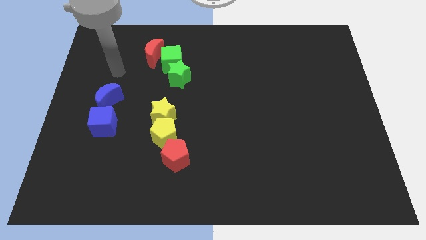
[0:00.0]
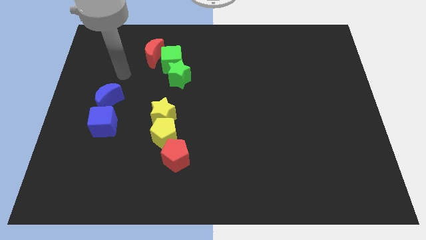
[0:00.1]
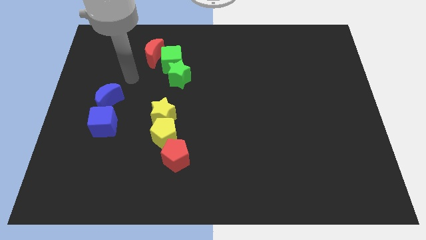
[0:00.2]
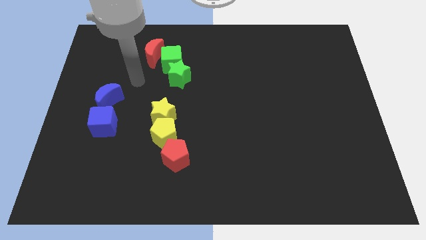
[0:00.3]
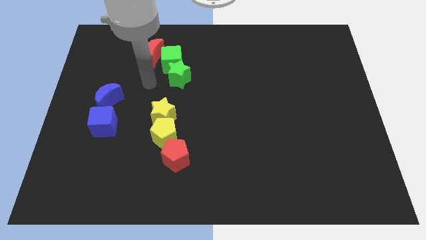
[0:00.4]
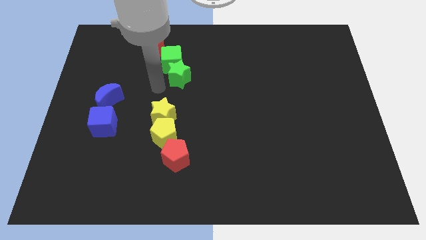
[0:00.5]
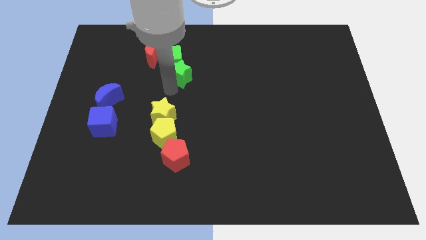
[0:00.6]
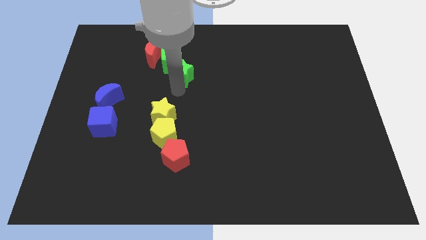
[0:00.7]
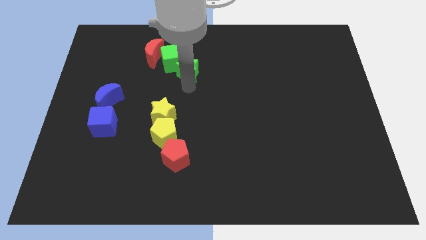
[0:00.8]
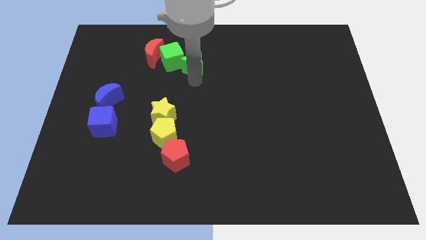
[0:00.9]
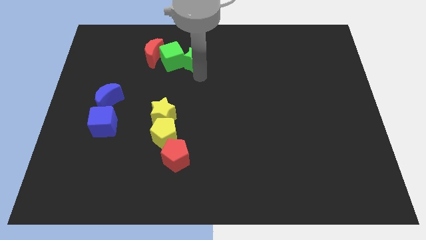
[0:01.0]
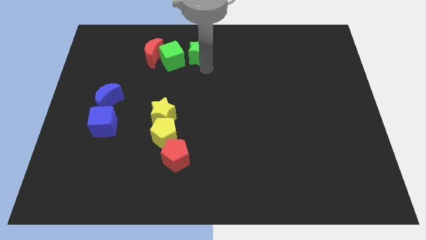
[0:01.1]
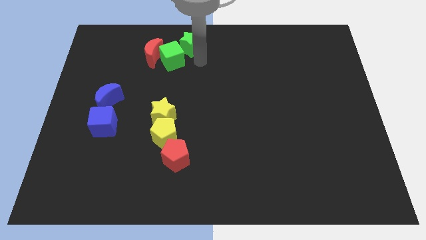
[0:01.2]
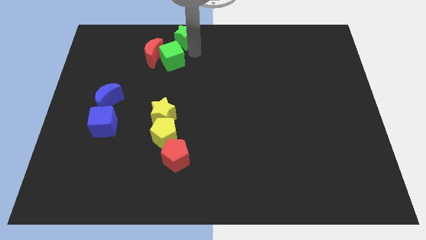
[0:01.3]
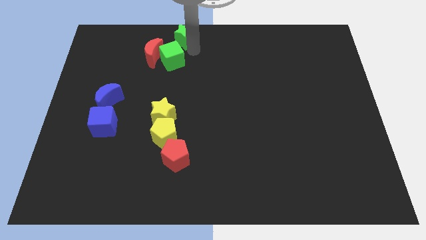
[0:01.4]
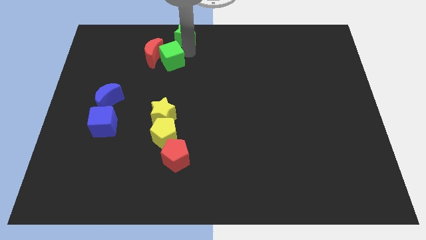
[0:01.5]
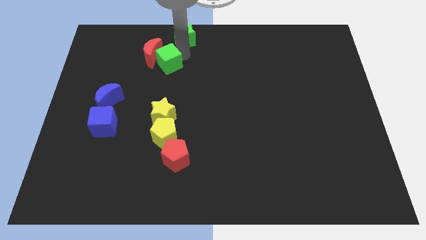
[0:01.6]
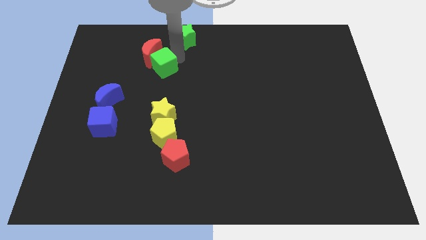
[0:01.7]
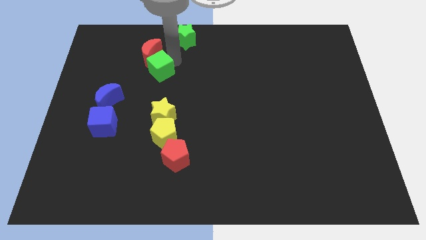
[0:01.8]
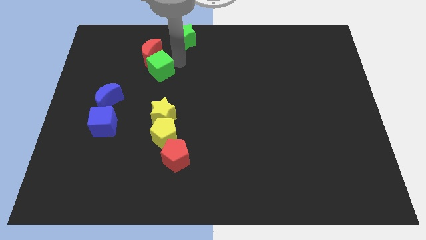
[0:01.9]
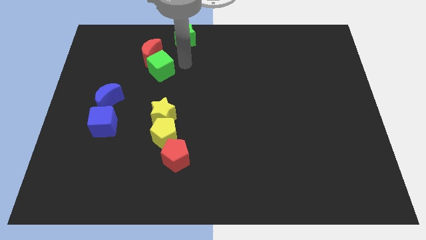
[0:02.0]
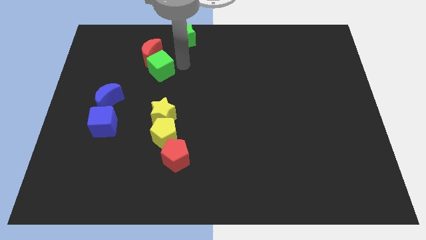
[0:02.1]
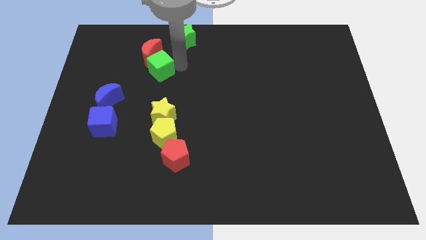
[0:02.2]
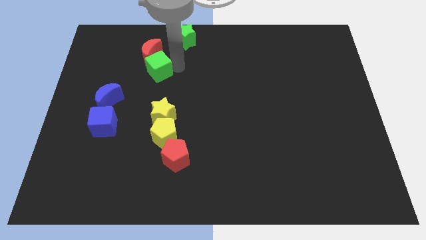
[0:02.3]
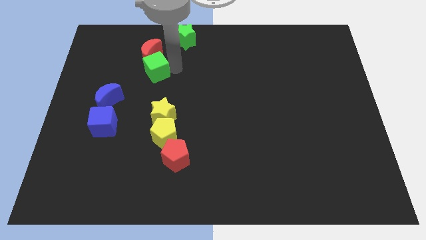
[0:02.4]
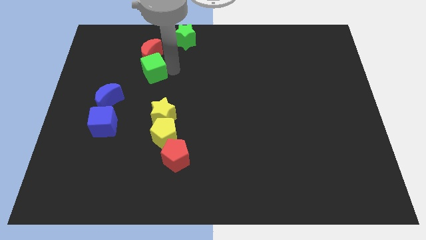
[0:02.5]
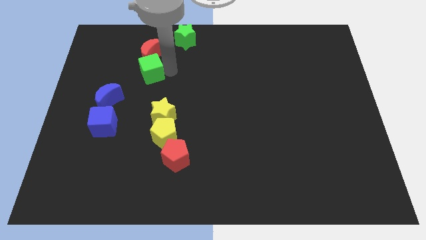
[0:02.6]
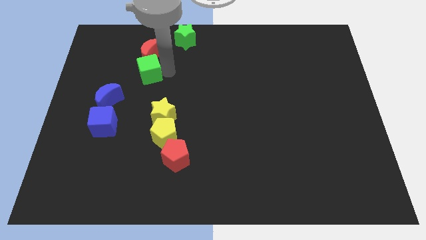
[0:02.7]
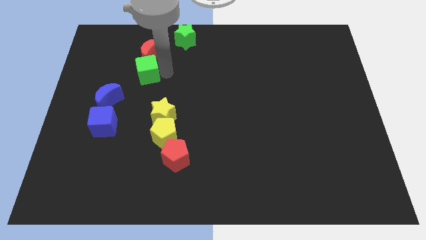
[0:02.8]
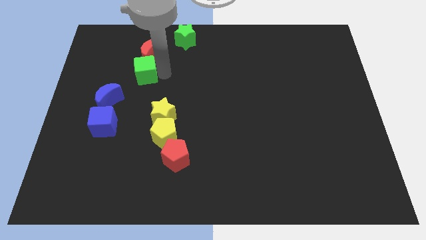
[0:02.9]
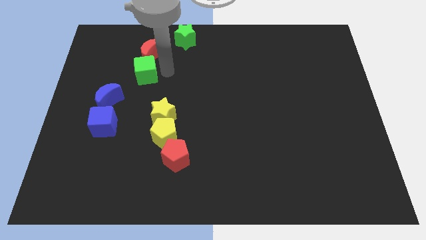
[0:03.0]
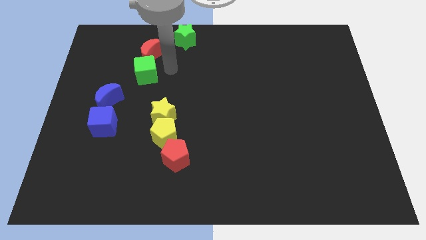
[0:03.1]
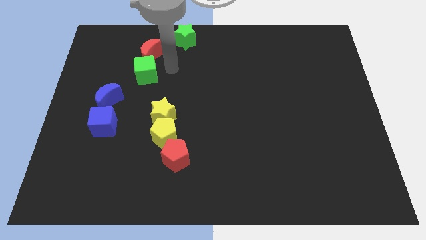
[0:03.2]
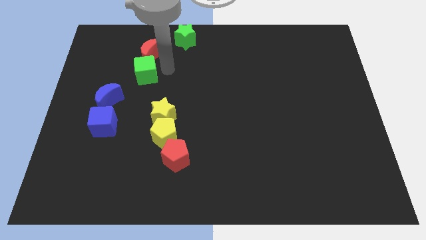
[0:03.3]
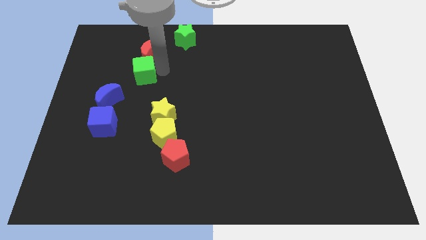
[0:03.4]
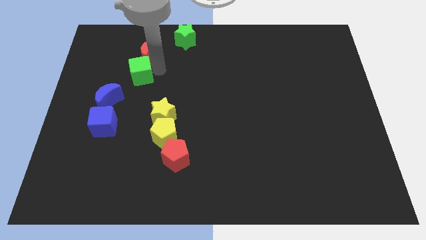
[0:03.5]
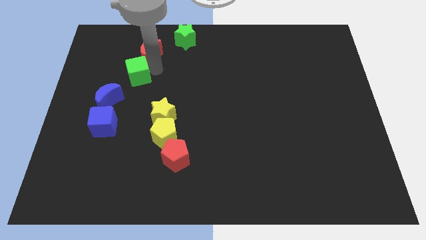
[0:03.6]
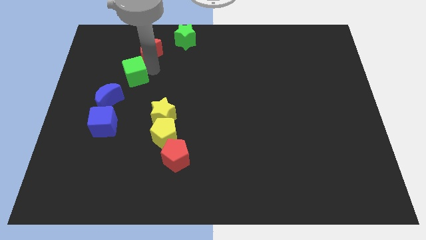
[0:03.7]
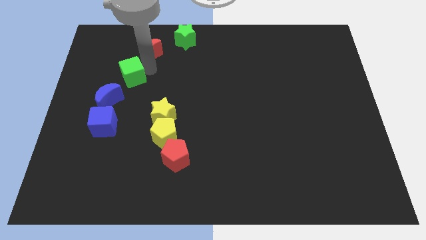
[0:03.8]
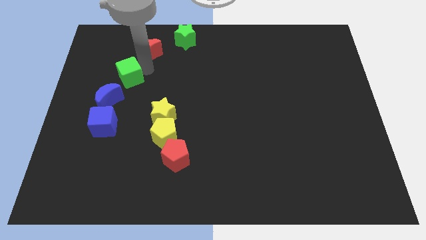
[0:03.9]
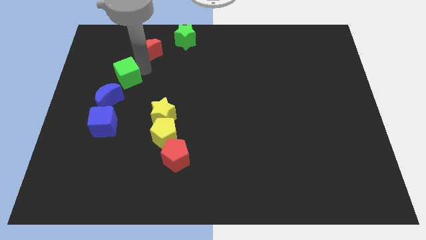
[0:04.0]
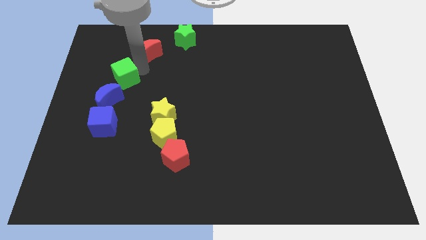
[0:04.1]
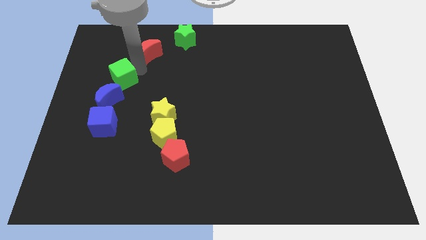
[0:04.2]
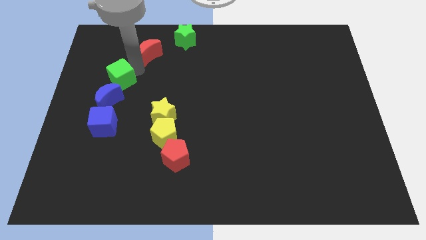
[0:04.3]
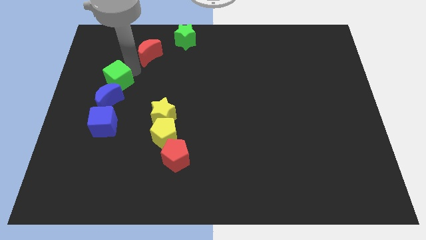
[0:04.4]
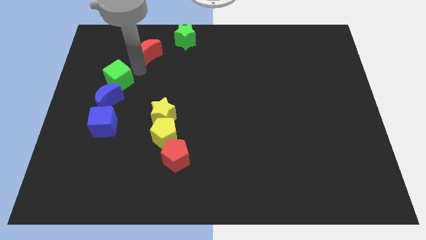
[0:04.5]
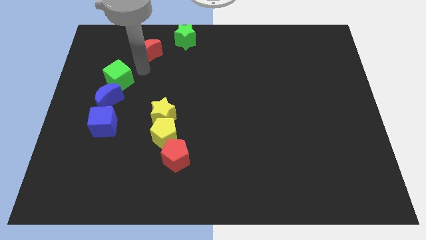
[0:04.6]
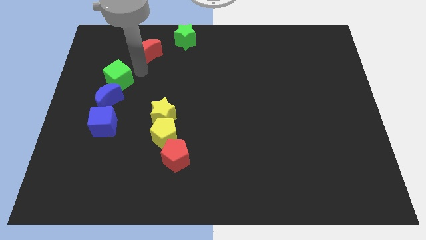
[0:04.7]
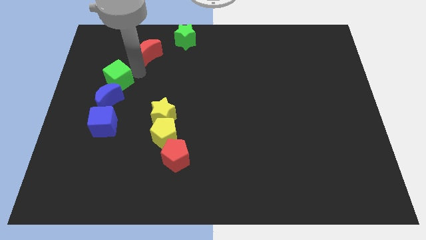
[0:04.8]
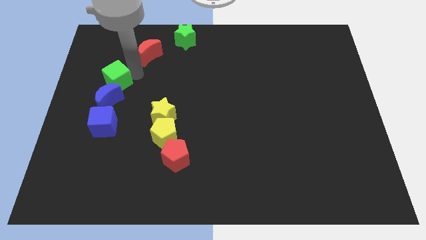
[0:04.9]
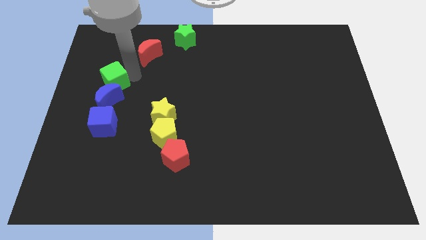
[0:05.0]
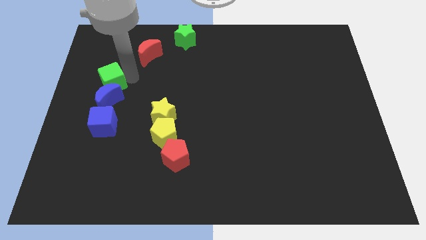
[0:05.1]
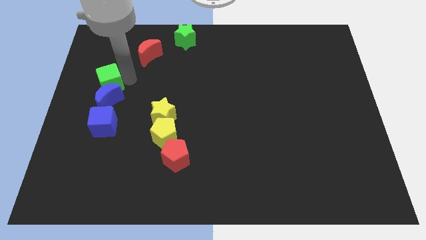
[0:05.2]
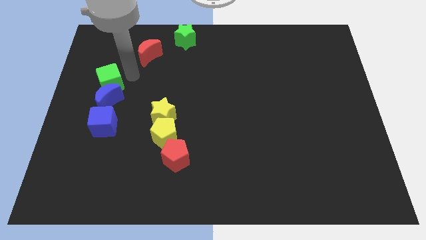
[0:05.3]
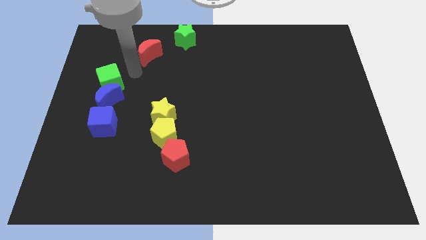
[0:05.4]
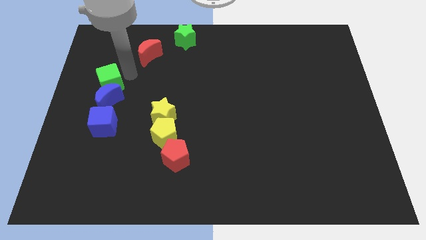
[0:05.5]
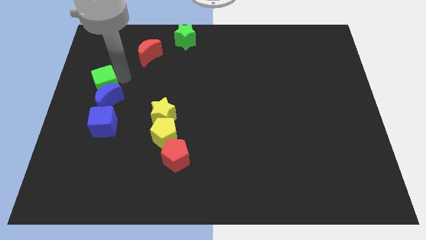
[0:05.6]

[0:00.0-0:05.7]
put the green cube to the center left

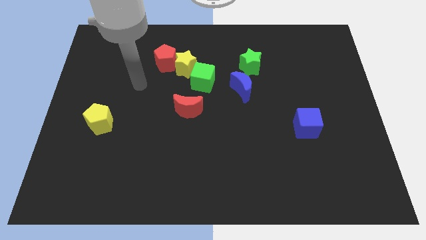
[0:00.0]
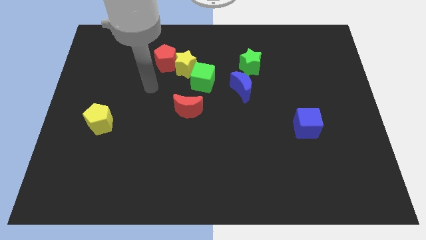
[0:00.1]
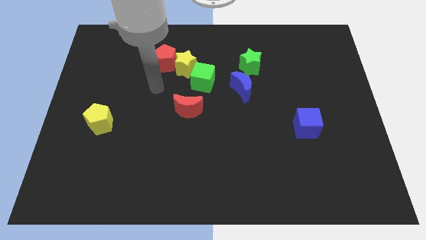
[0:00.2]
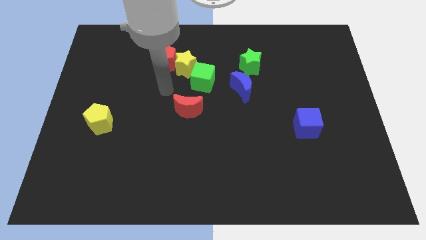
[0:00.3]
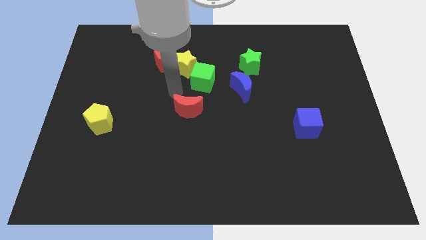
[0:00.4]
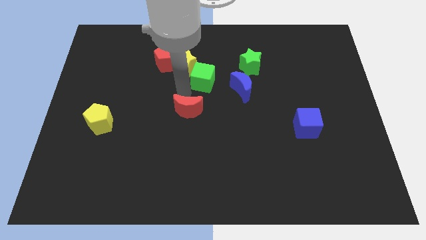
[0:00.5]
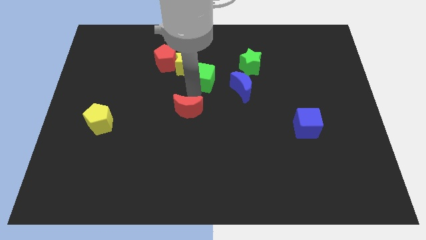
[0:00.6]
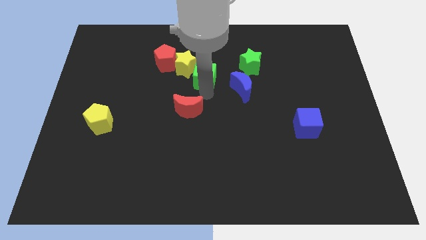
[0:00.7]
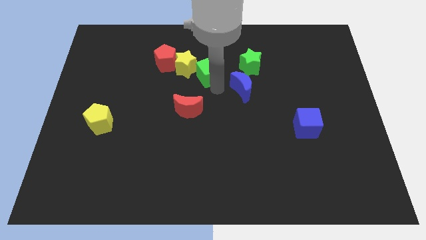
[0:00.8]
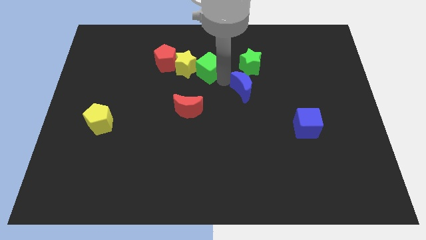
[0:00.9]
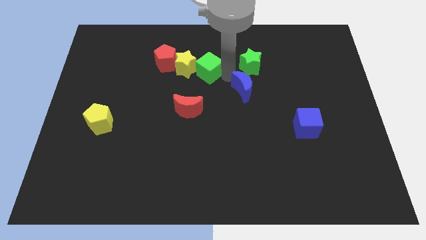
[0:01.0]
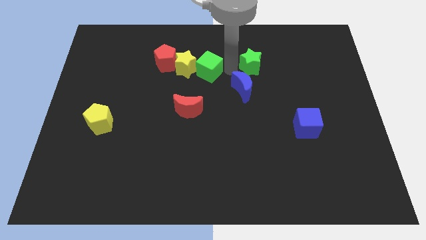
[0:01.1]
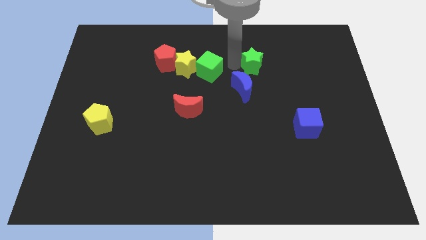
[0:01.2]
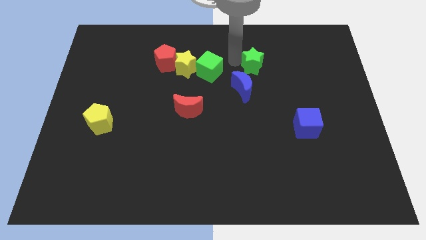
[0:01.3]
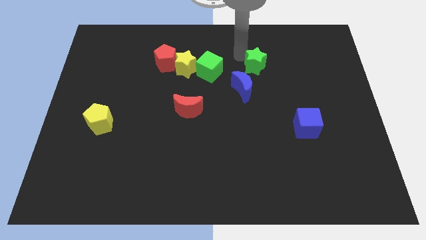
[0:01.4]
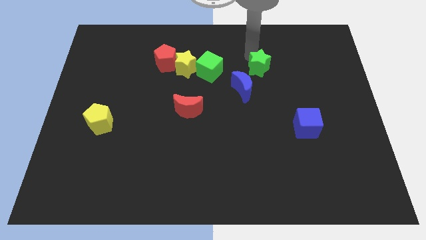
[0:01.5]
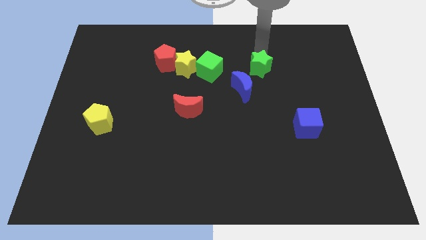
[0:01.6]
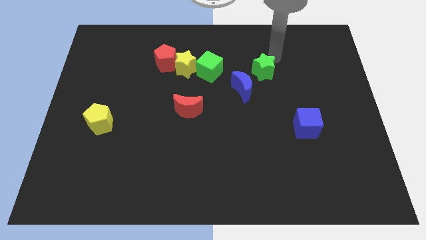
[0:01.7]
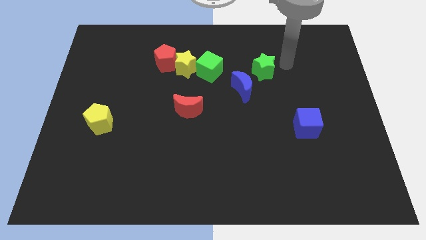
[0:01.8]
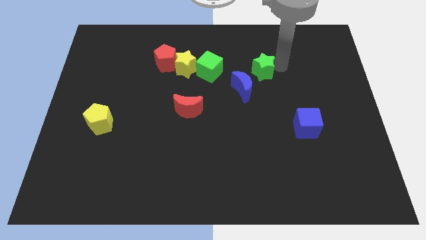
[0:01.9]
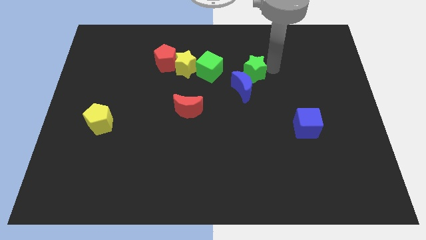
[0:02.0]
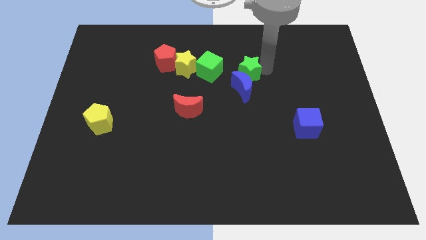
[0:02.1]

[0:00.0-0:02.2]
push the green star to the middle of the board
